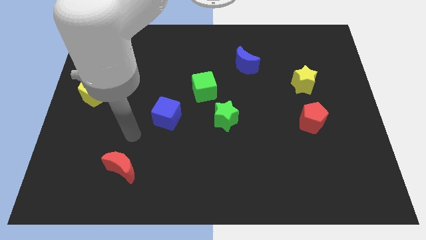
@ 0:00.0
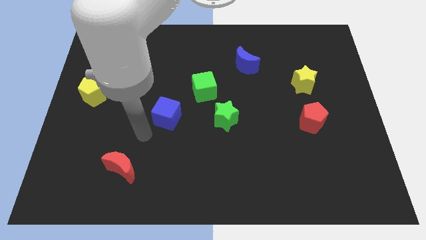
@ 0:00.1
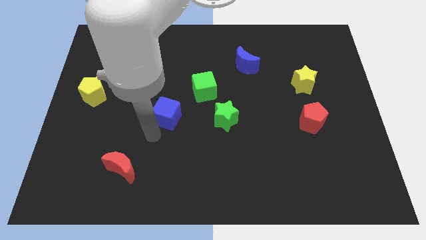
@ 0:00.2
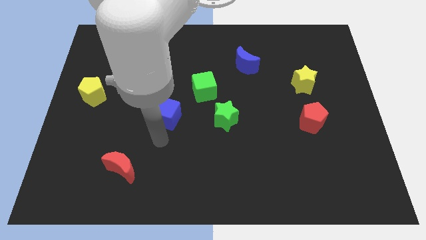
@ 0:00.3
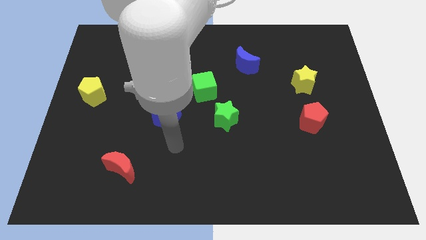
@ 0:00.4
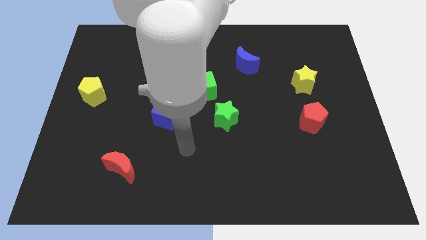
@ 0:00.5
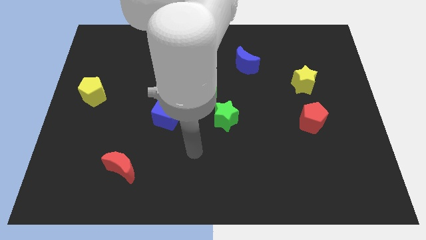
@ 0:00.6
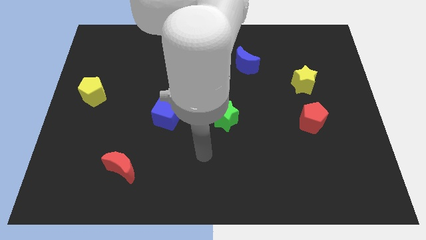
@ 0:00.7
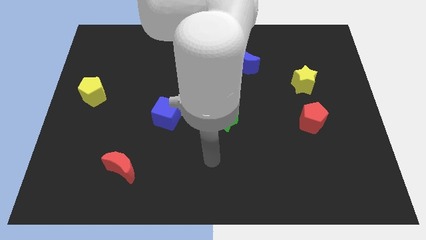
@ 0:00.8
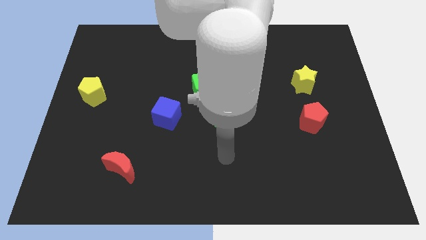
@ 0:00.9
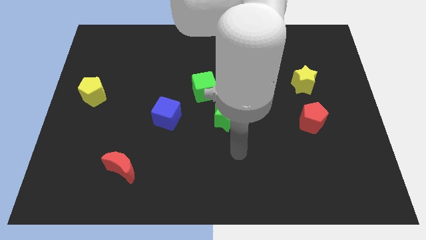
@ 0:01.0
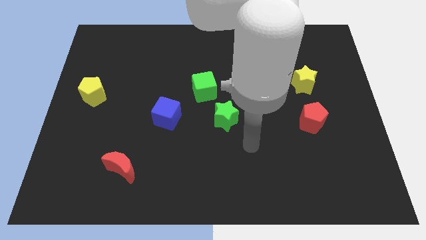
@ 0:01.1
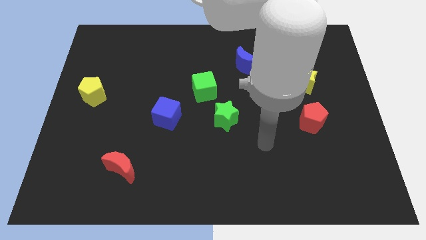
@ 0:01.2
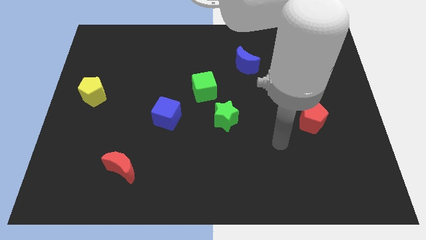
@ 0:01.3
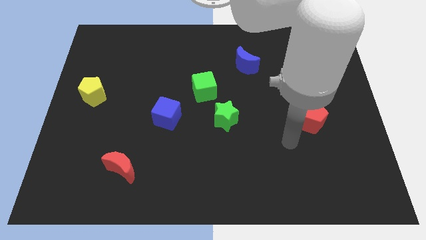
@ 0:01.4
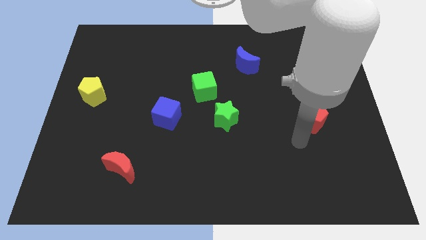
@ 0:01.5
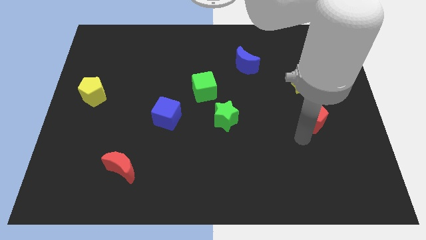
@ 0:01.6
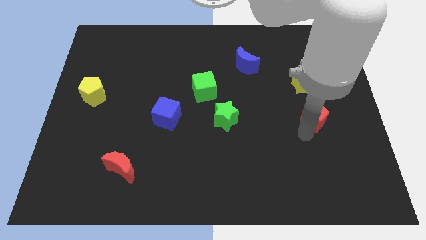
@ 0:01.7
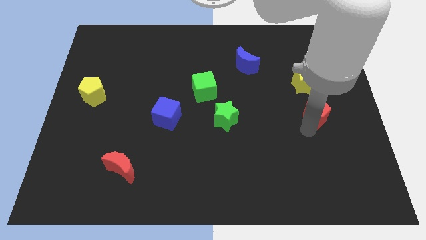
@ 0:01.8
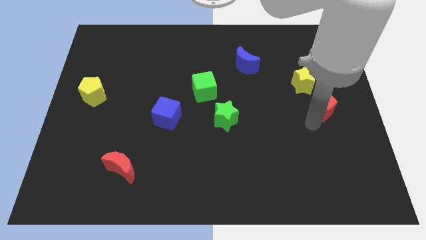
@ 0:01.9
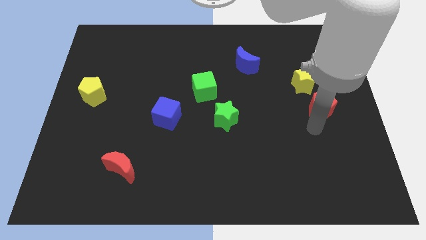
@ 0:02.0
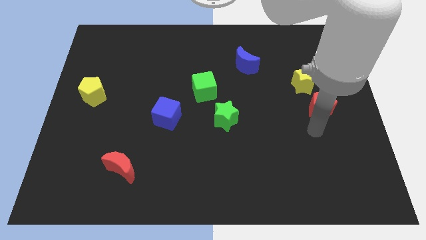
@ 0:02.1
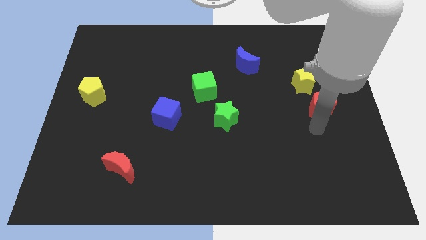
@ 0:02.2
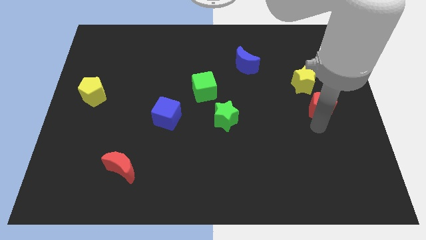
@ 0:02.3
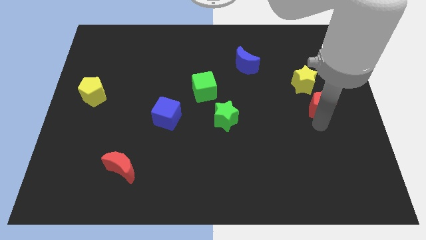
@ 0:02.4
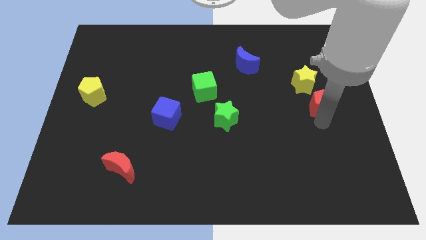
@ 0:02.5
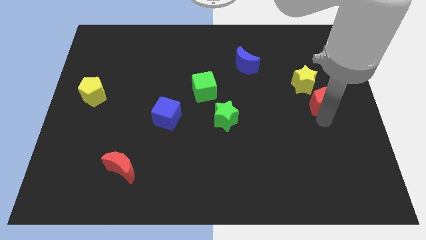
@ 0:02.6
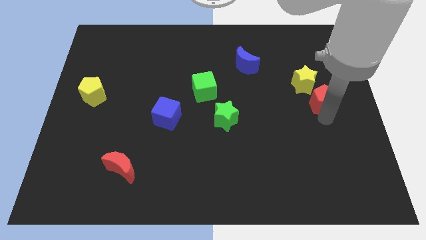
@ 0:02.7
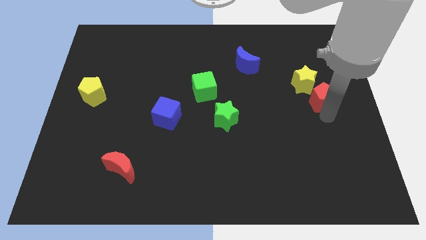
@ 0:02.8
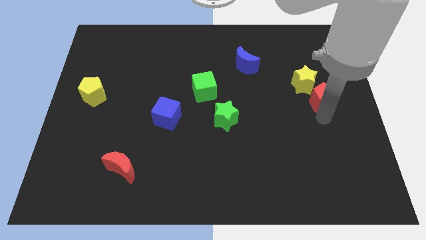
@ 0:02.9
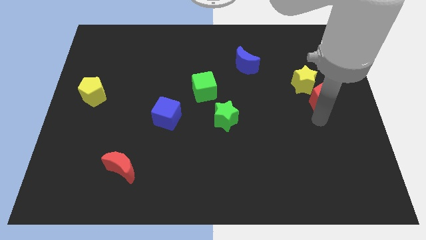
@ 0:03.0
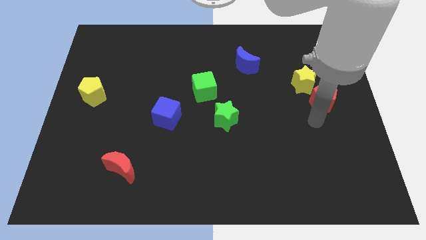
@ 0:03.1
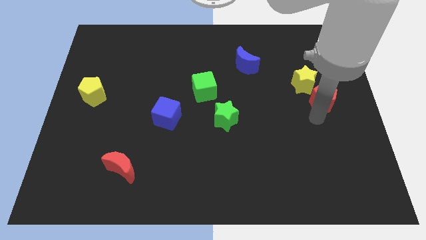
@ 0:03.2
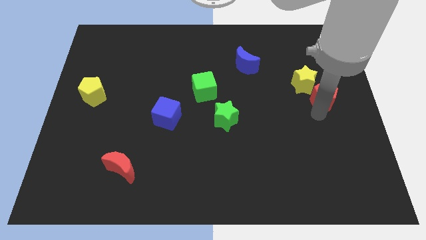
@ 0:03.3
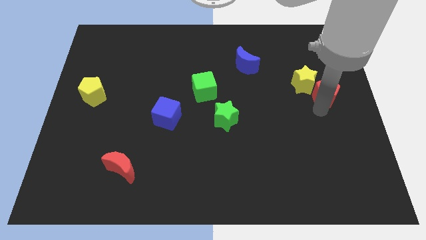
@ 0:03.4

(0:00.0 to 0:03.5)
slightly push the red pentagon upwards

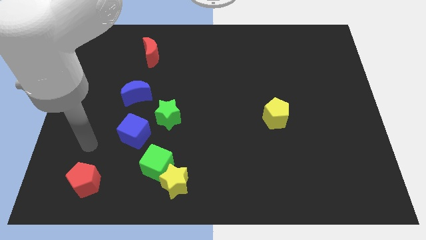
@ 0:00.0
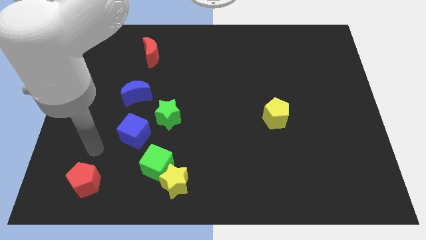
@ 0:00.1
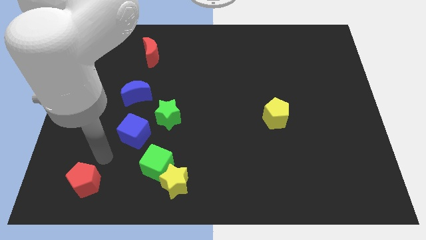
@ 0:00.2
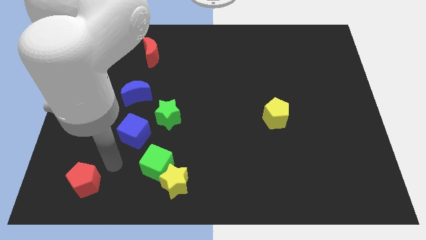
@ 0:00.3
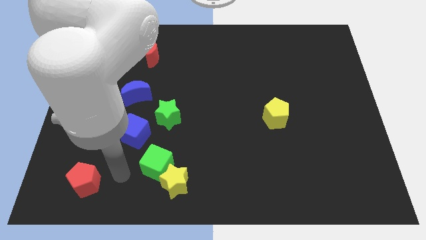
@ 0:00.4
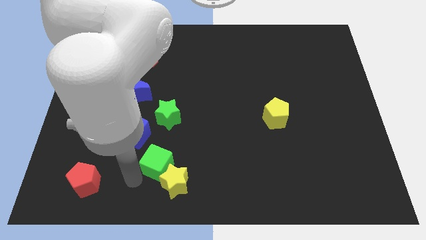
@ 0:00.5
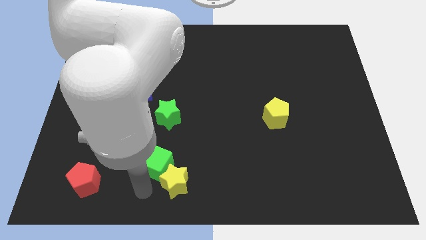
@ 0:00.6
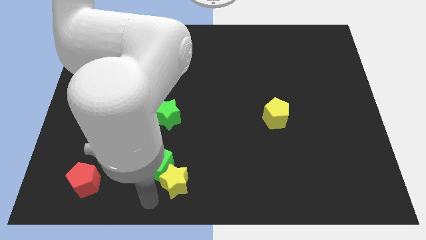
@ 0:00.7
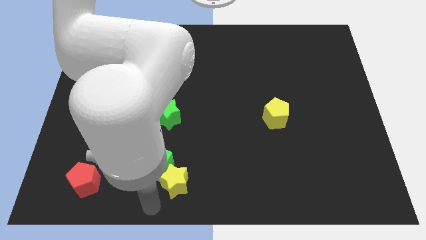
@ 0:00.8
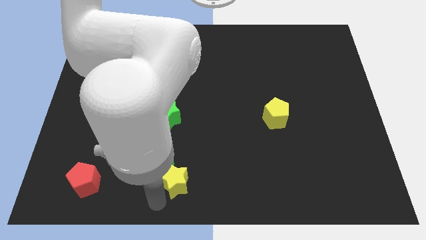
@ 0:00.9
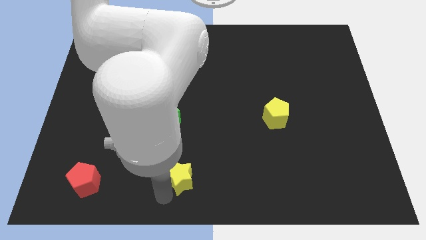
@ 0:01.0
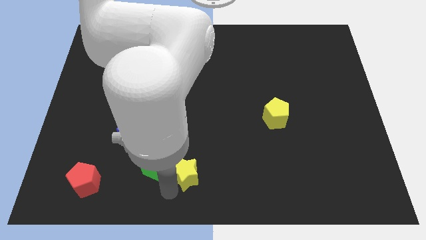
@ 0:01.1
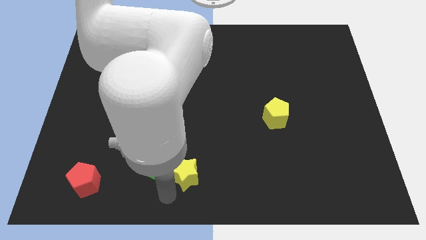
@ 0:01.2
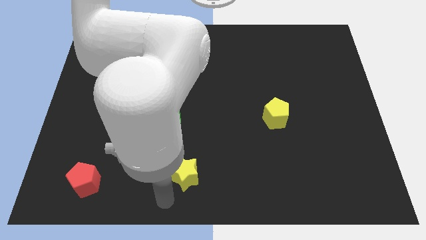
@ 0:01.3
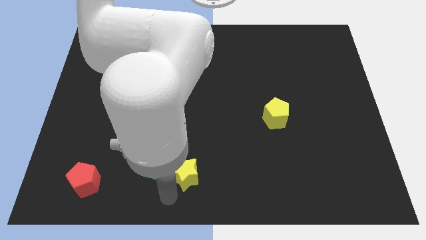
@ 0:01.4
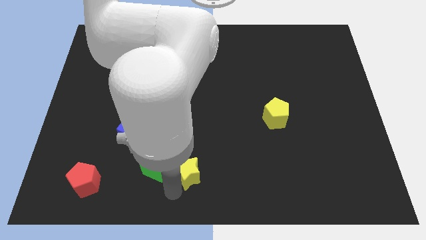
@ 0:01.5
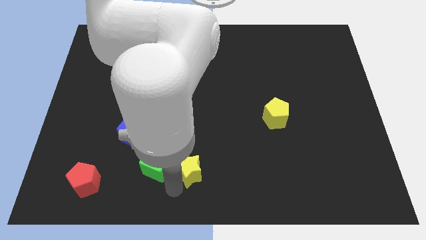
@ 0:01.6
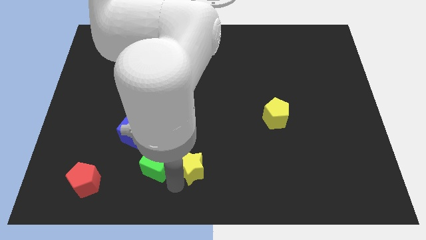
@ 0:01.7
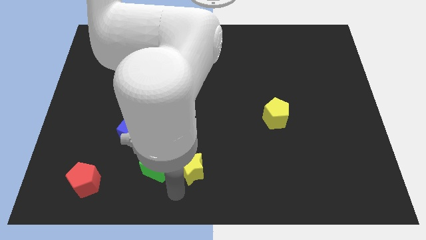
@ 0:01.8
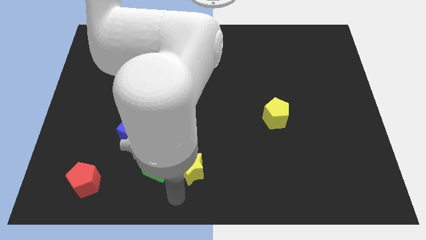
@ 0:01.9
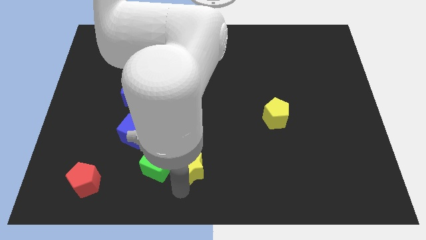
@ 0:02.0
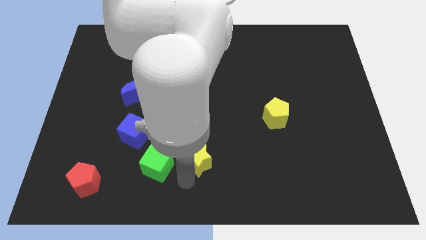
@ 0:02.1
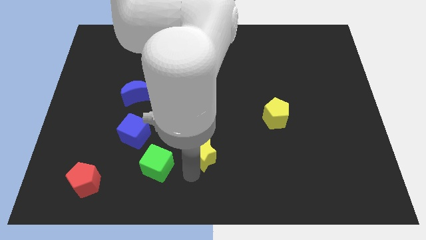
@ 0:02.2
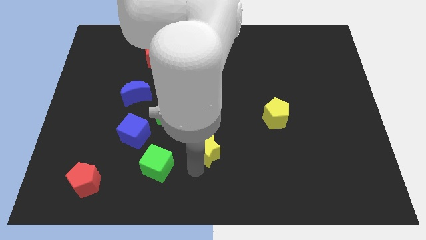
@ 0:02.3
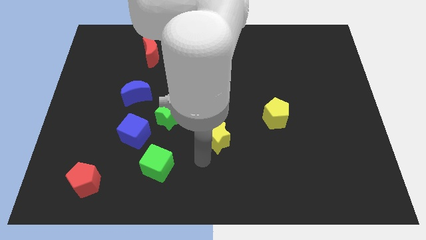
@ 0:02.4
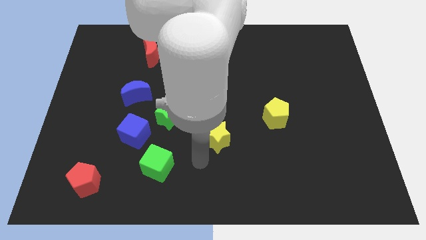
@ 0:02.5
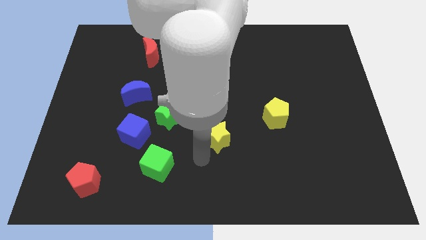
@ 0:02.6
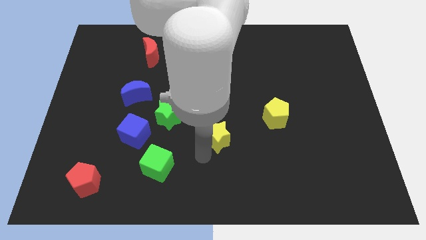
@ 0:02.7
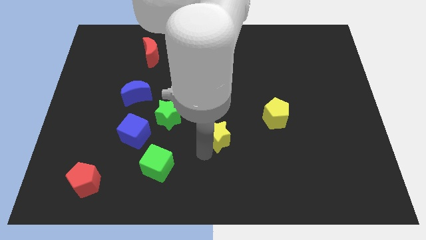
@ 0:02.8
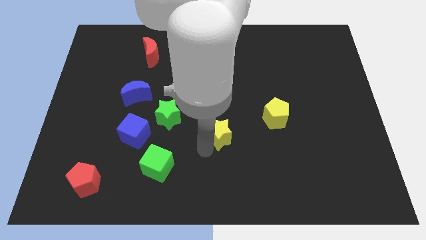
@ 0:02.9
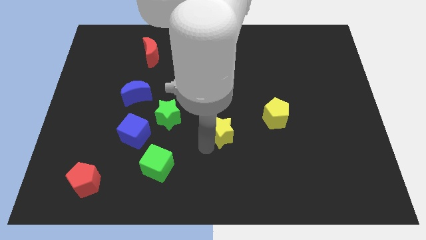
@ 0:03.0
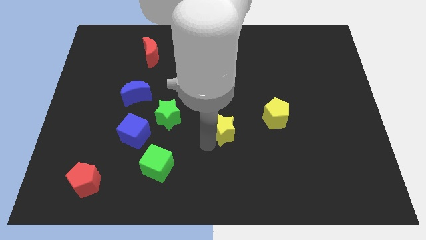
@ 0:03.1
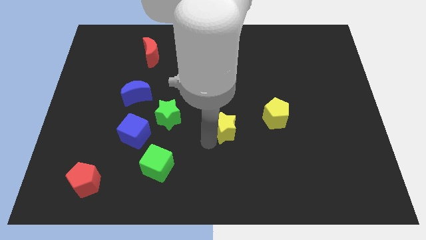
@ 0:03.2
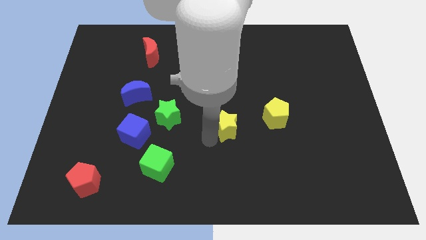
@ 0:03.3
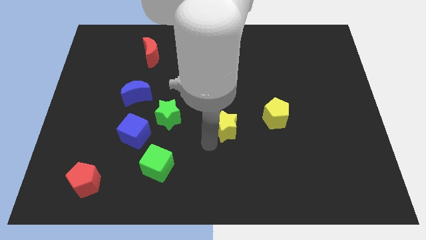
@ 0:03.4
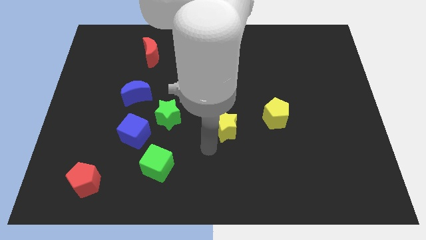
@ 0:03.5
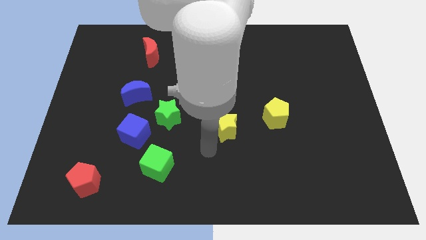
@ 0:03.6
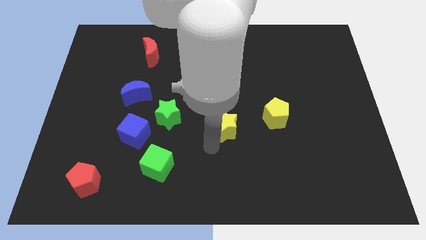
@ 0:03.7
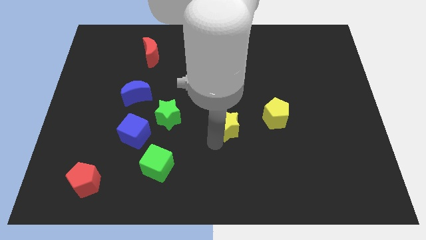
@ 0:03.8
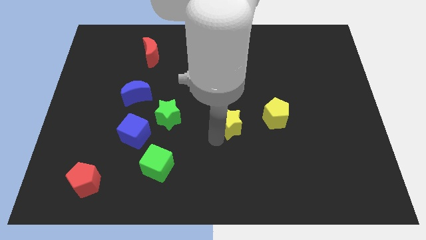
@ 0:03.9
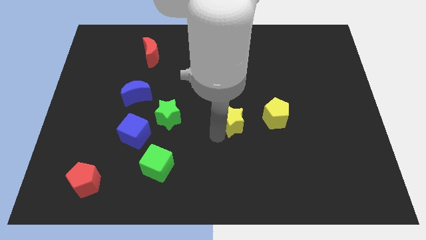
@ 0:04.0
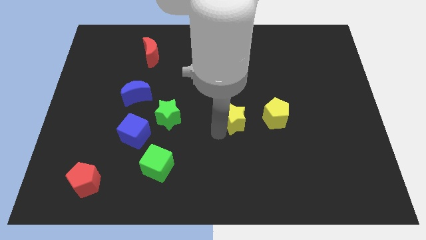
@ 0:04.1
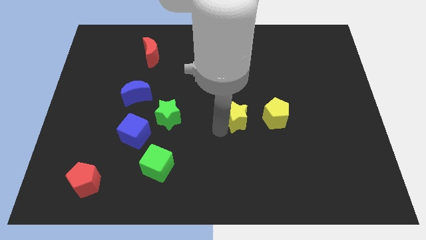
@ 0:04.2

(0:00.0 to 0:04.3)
slide the yellow star up and right

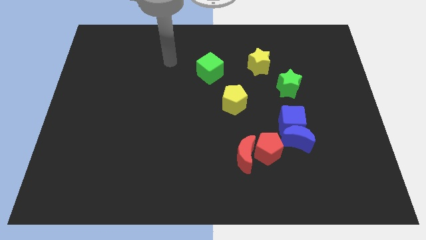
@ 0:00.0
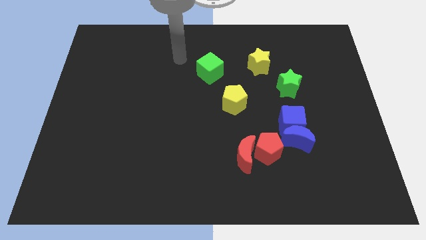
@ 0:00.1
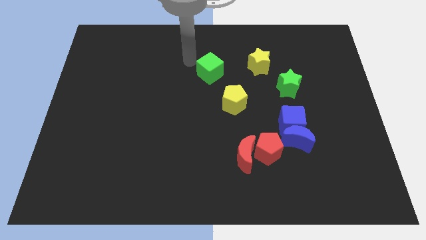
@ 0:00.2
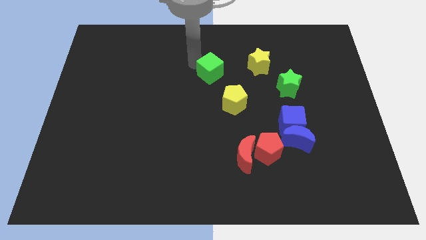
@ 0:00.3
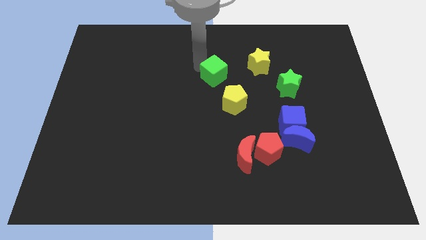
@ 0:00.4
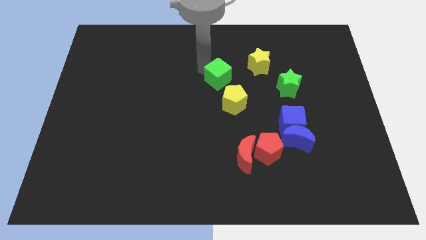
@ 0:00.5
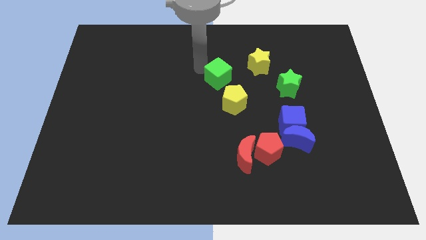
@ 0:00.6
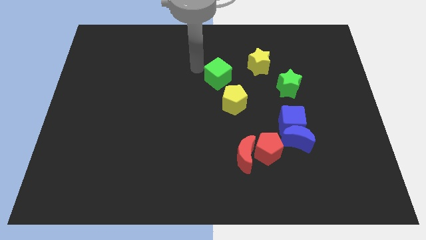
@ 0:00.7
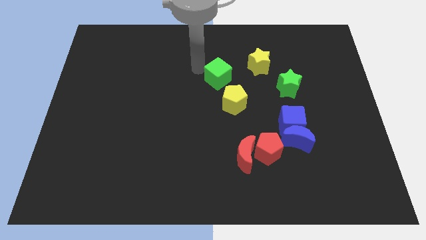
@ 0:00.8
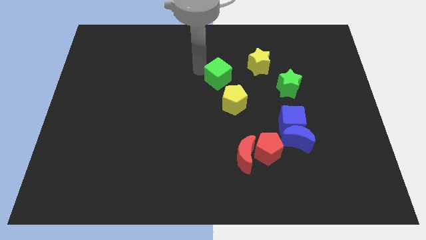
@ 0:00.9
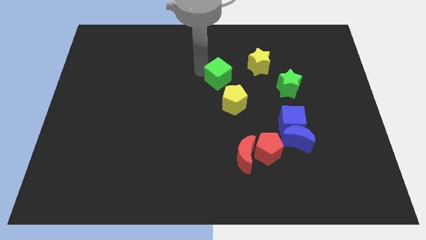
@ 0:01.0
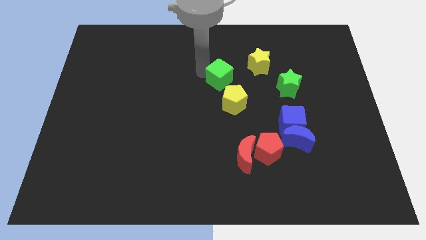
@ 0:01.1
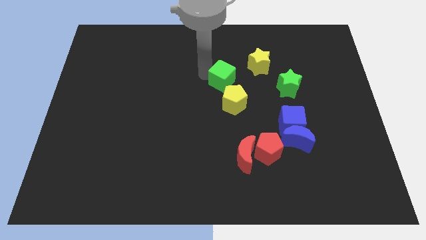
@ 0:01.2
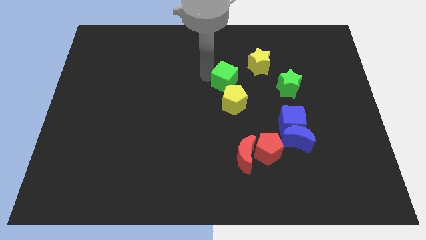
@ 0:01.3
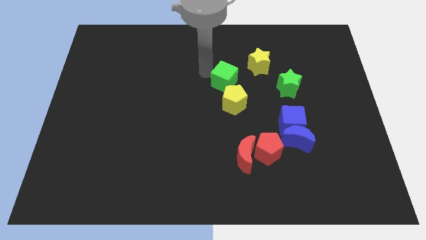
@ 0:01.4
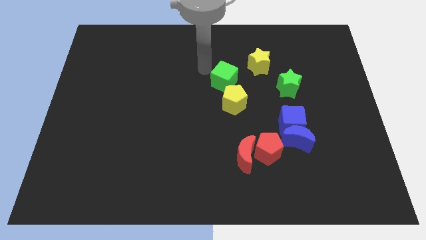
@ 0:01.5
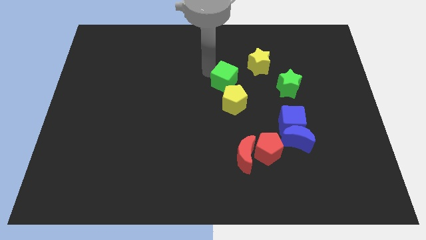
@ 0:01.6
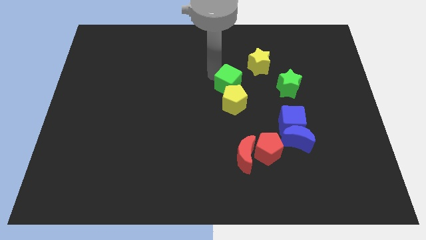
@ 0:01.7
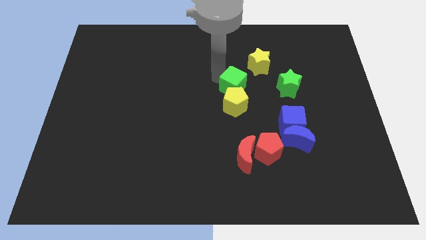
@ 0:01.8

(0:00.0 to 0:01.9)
push the green cube down and to the right diagonally a little bit
